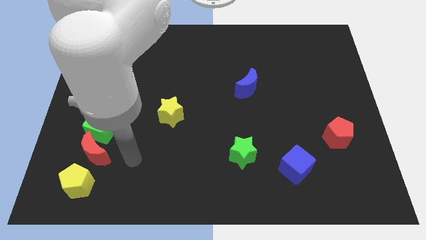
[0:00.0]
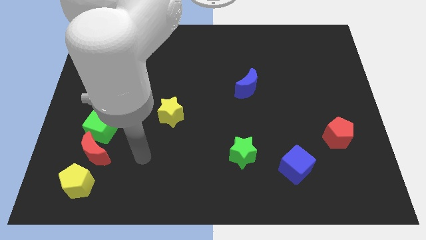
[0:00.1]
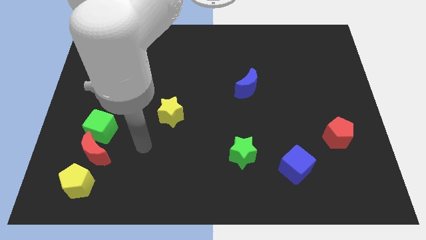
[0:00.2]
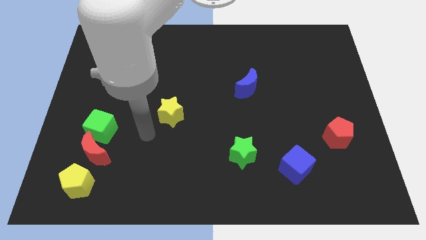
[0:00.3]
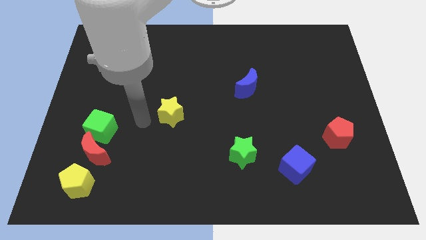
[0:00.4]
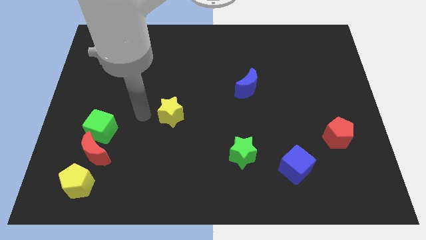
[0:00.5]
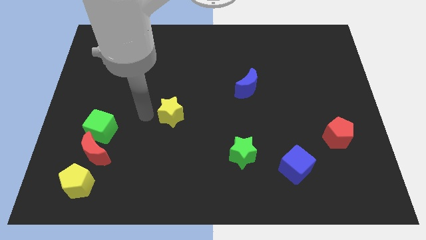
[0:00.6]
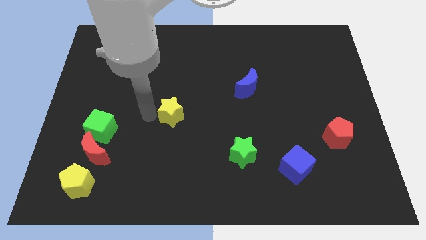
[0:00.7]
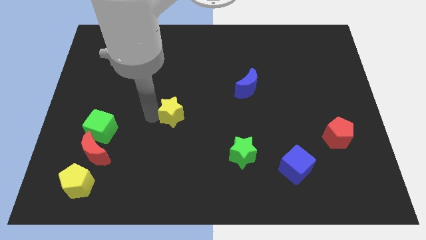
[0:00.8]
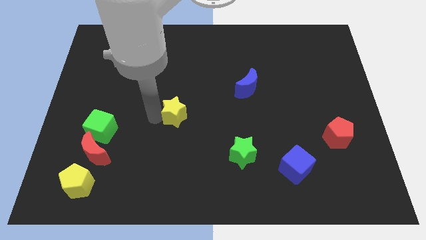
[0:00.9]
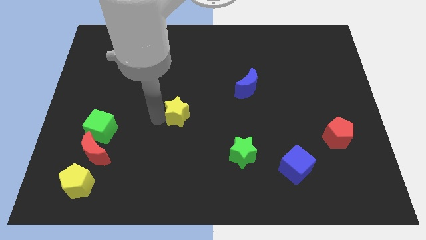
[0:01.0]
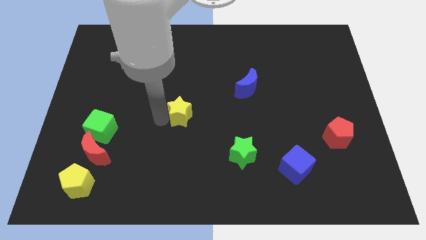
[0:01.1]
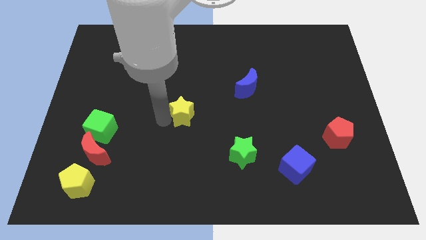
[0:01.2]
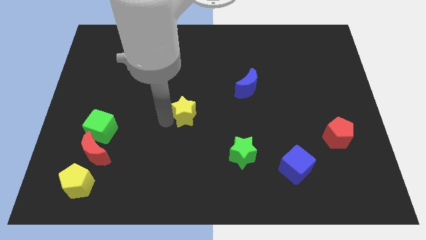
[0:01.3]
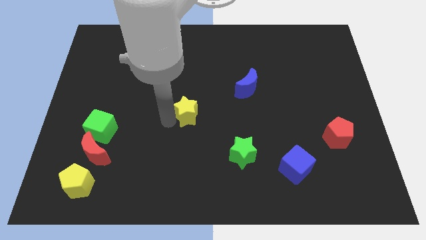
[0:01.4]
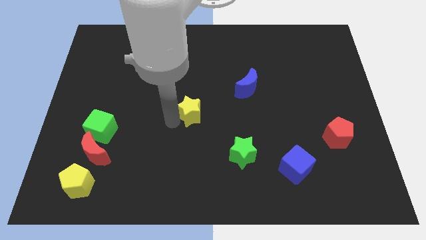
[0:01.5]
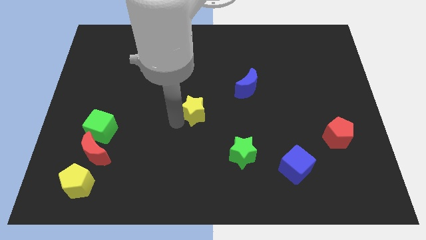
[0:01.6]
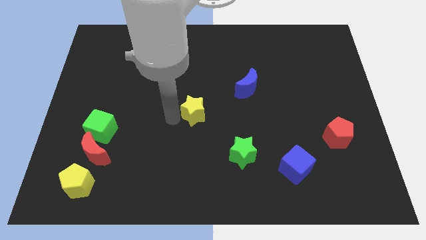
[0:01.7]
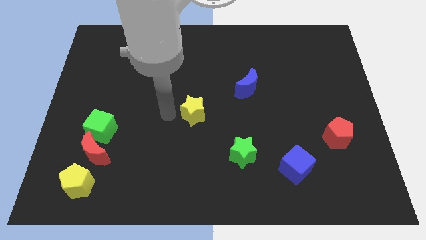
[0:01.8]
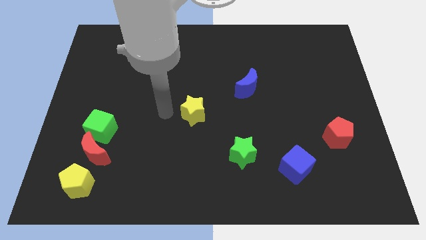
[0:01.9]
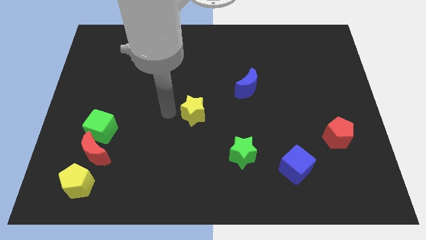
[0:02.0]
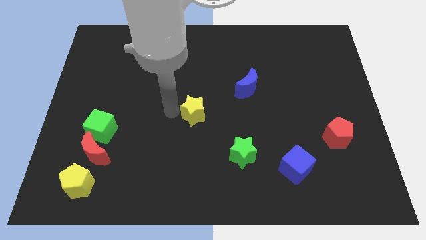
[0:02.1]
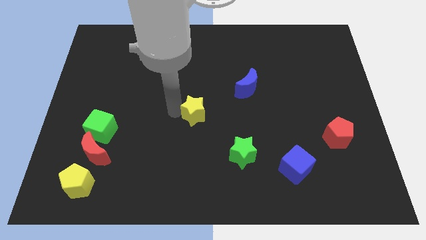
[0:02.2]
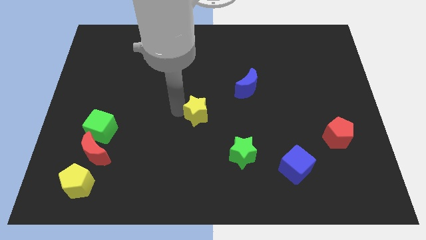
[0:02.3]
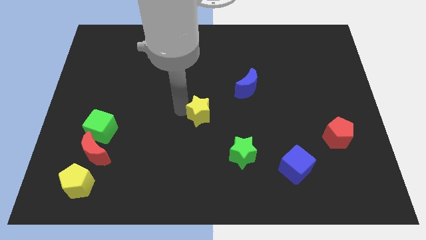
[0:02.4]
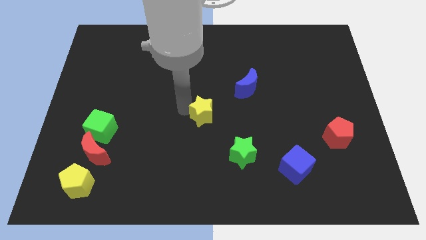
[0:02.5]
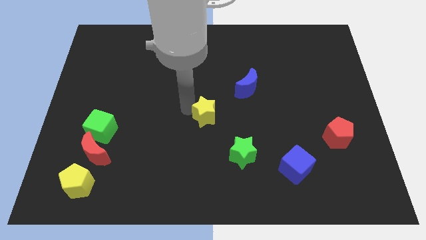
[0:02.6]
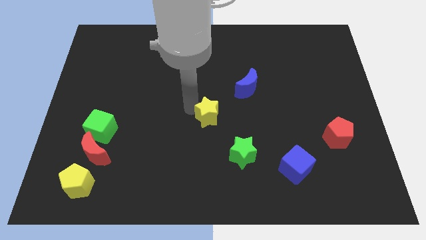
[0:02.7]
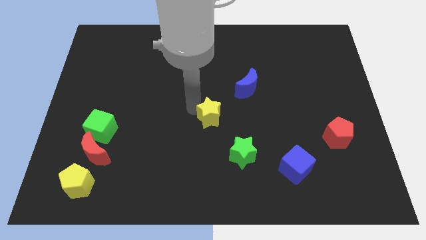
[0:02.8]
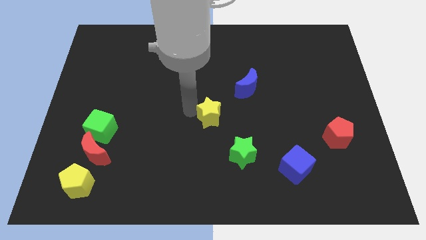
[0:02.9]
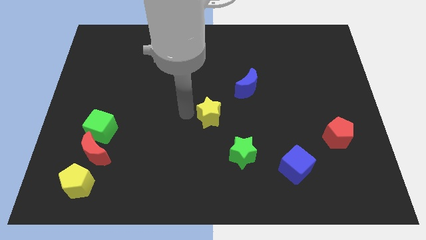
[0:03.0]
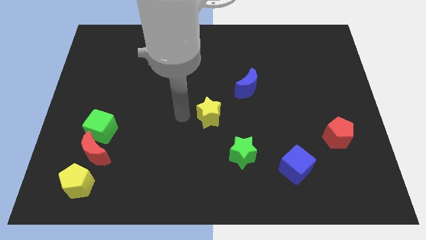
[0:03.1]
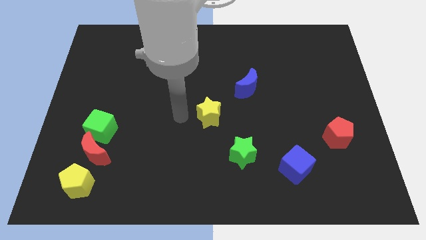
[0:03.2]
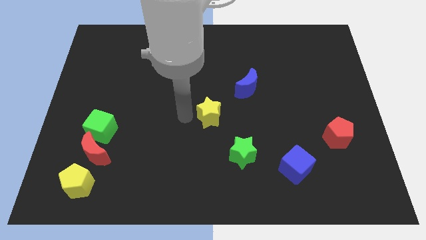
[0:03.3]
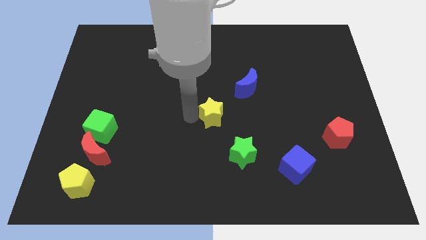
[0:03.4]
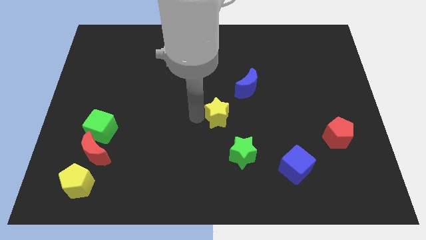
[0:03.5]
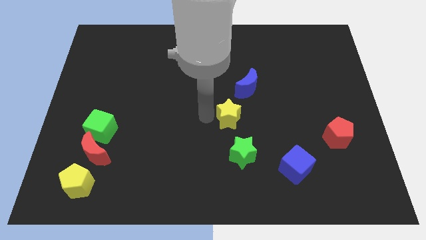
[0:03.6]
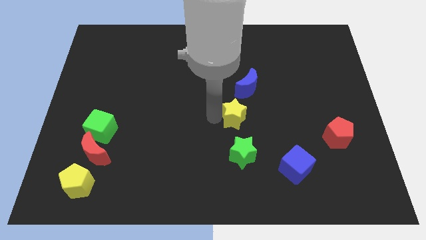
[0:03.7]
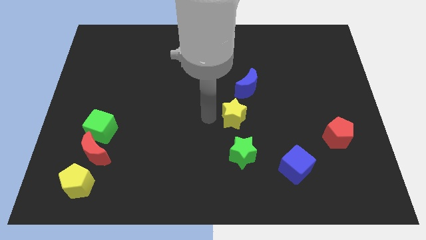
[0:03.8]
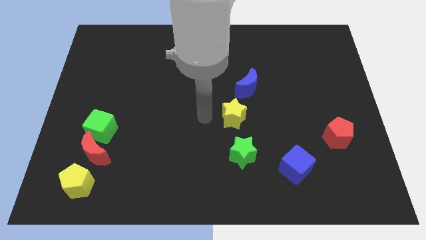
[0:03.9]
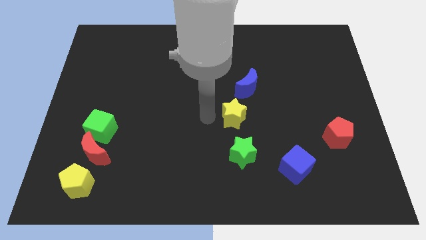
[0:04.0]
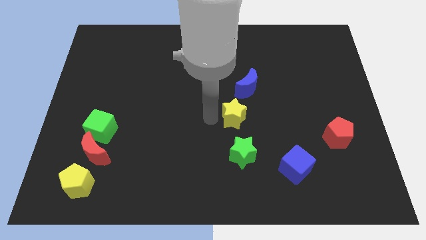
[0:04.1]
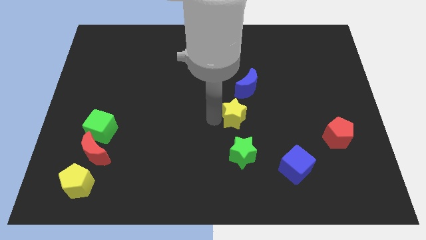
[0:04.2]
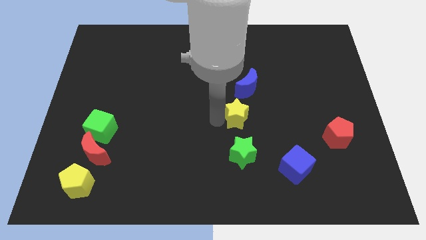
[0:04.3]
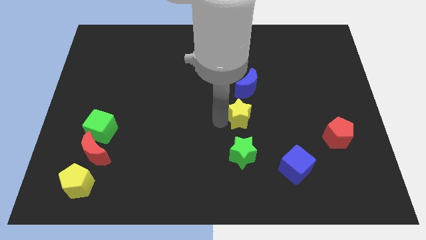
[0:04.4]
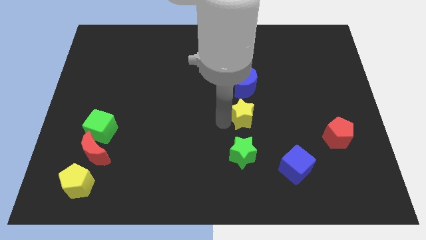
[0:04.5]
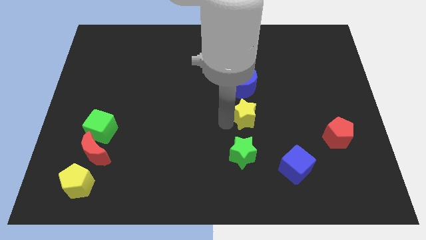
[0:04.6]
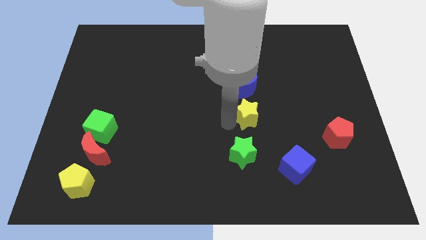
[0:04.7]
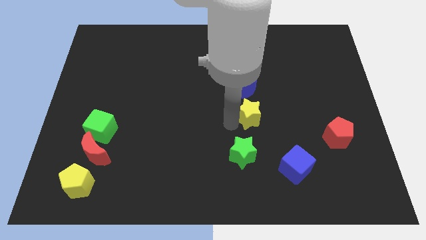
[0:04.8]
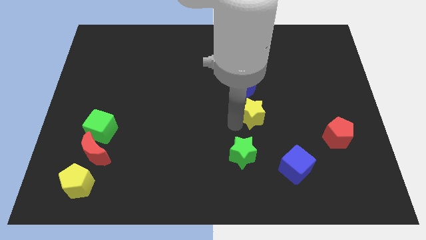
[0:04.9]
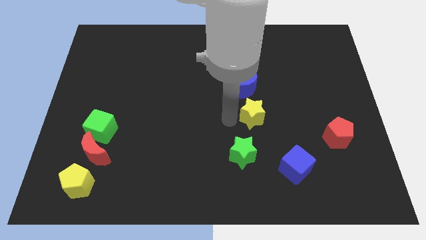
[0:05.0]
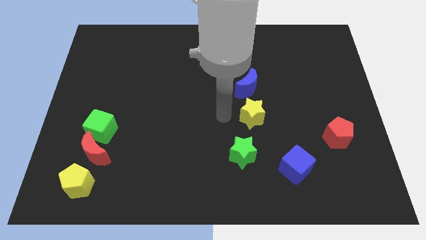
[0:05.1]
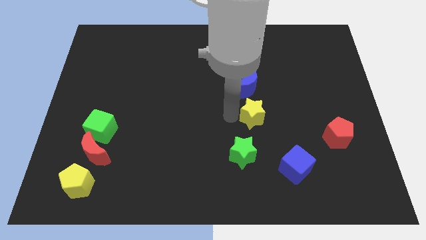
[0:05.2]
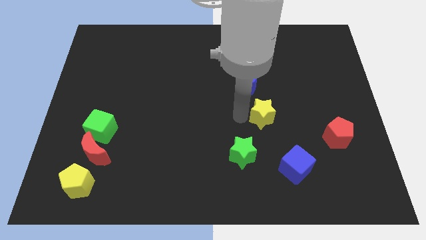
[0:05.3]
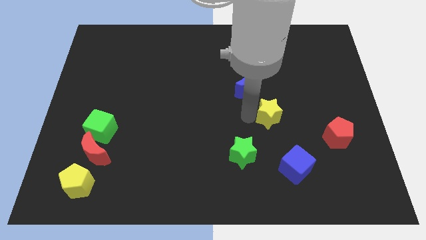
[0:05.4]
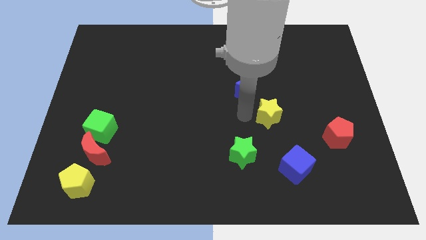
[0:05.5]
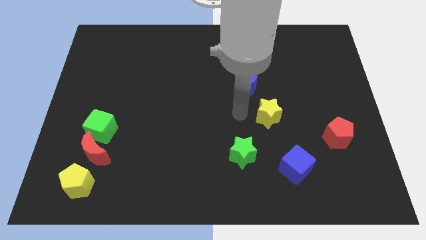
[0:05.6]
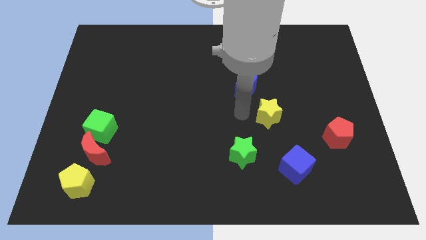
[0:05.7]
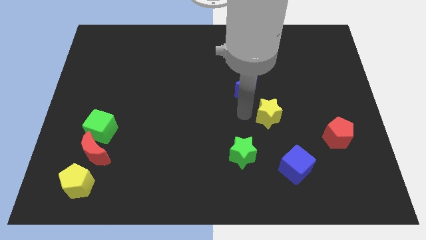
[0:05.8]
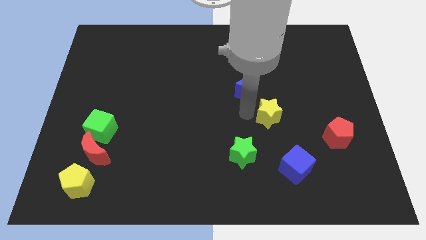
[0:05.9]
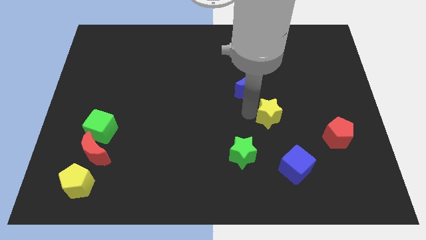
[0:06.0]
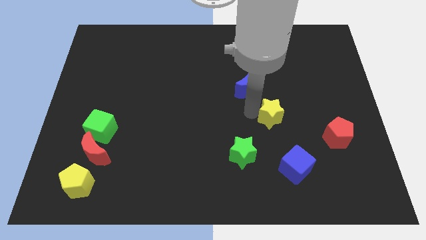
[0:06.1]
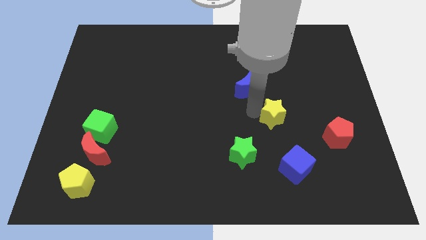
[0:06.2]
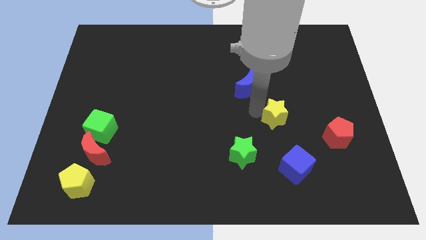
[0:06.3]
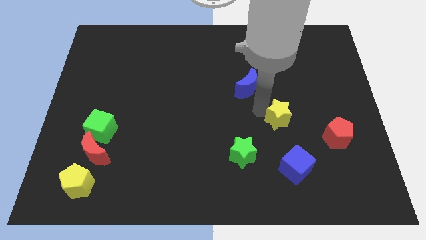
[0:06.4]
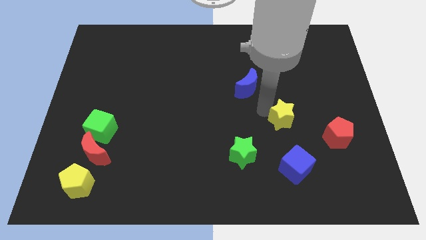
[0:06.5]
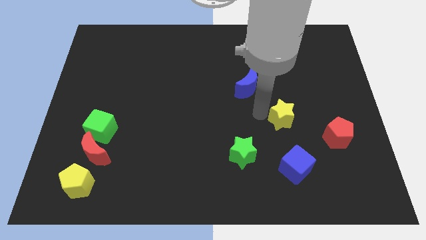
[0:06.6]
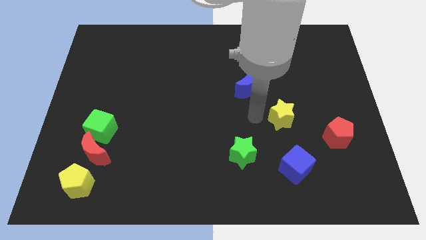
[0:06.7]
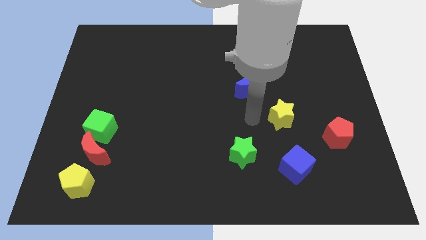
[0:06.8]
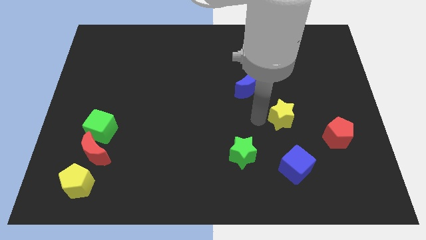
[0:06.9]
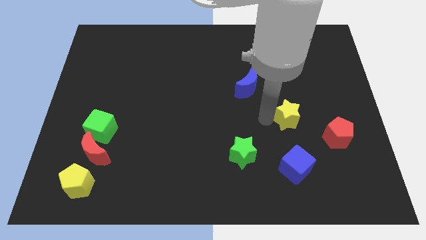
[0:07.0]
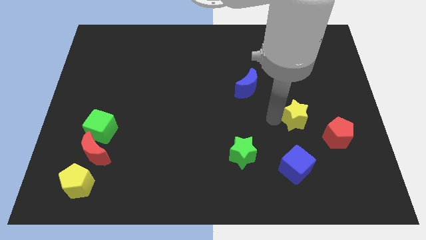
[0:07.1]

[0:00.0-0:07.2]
slide the yellow star to the top left of the red pentagon
